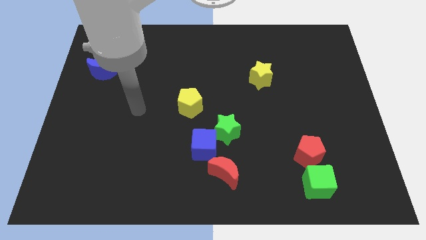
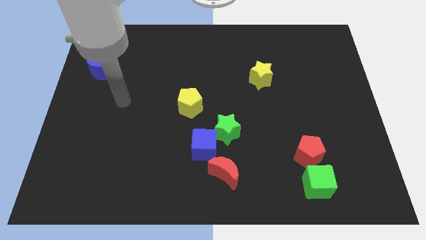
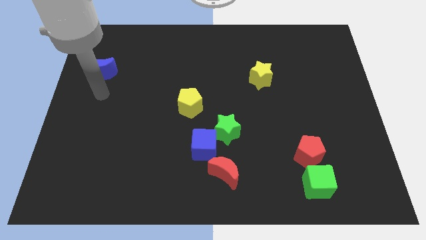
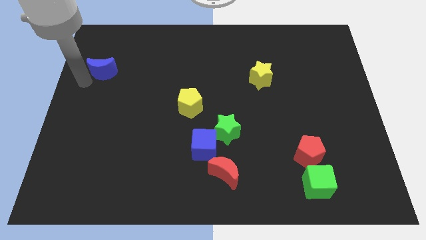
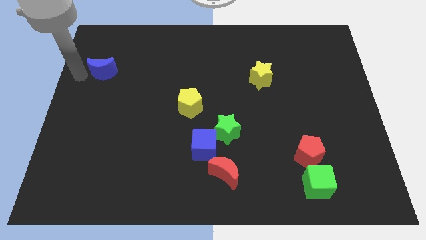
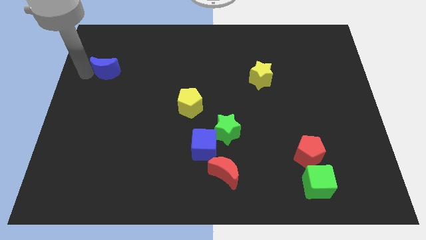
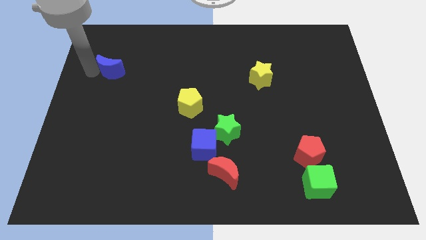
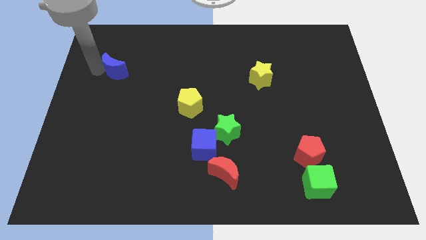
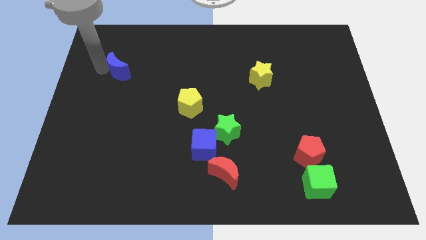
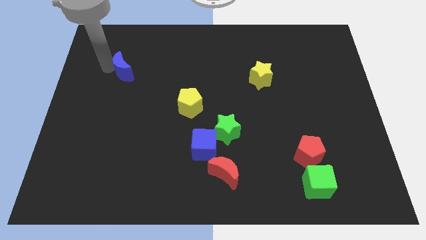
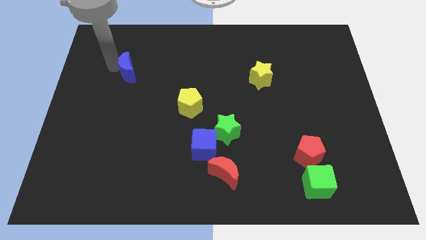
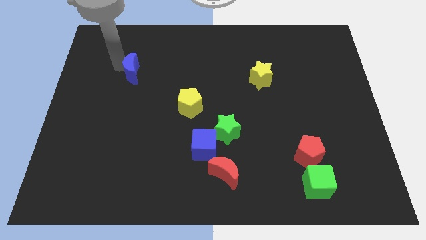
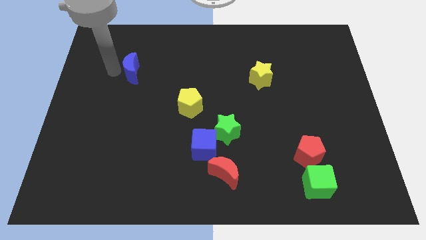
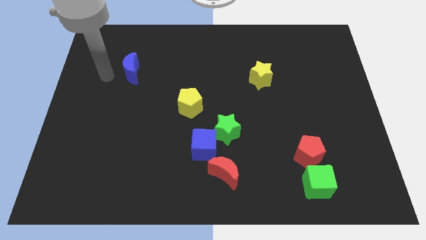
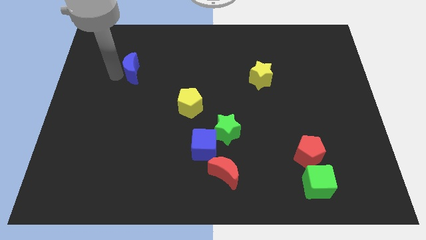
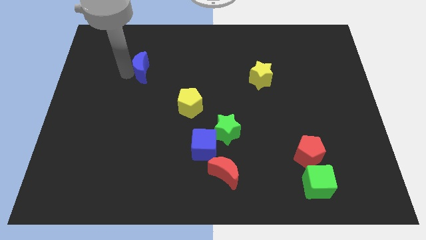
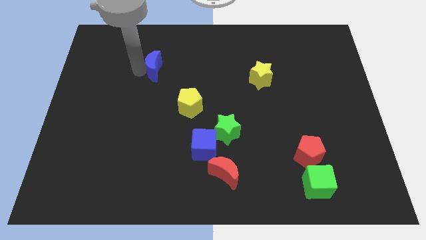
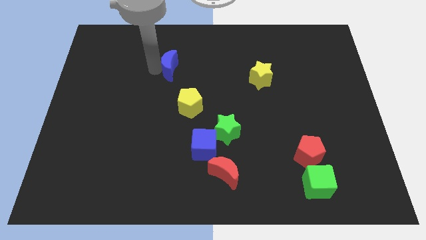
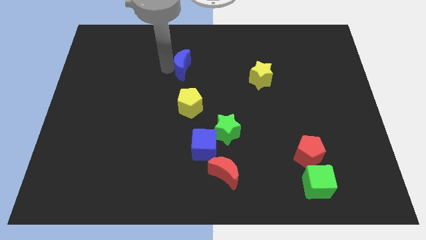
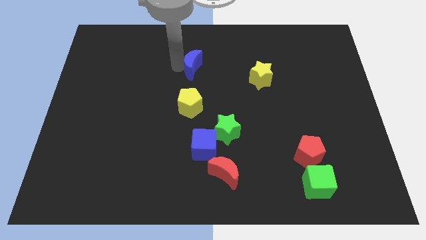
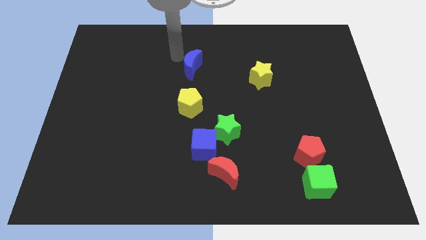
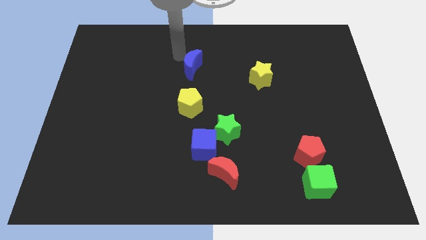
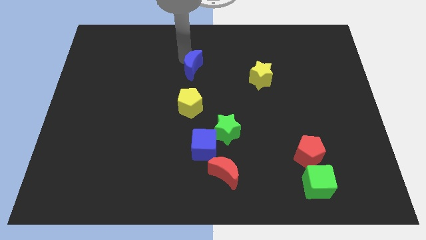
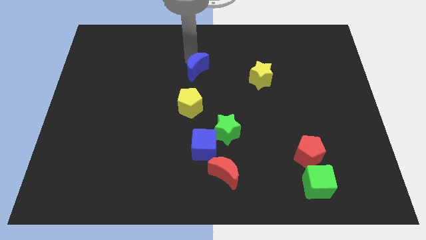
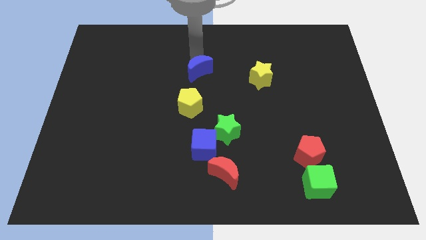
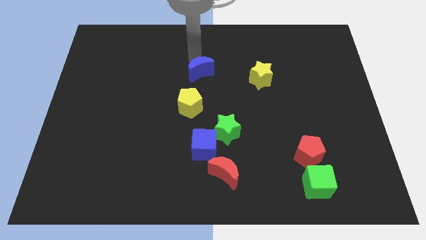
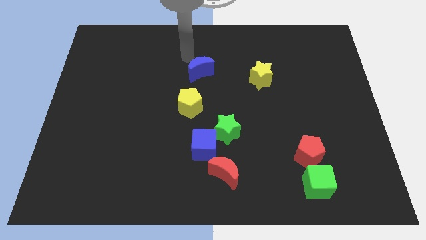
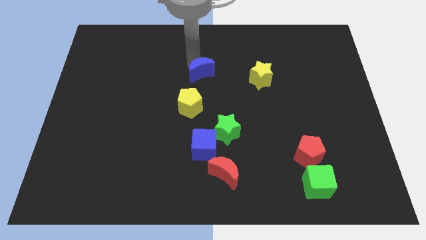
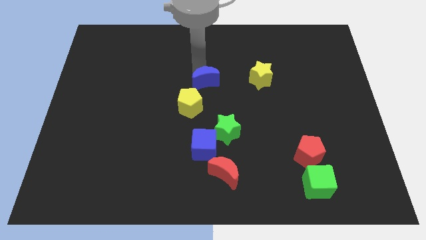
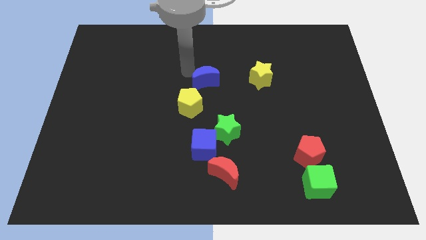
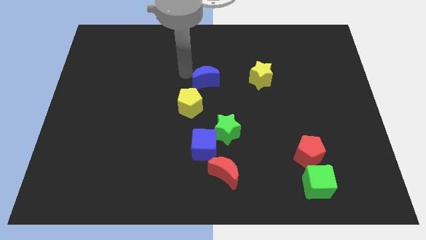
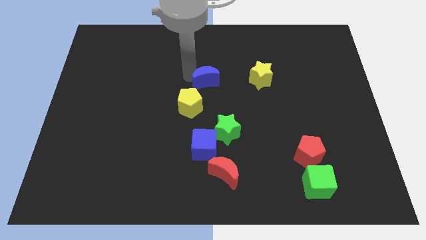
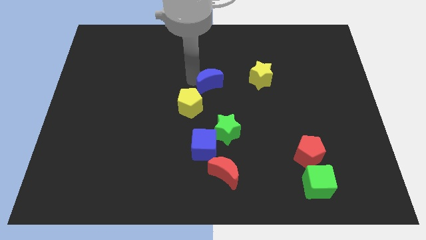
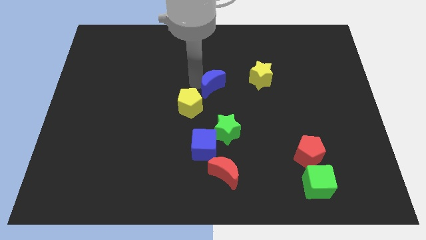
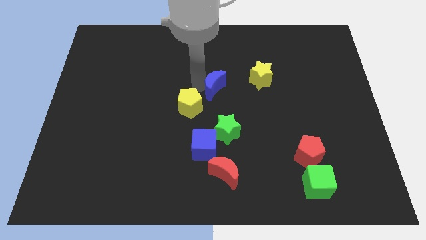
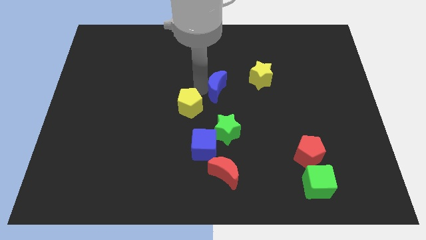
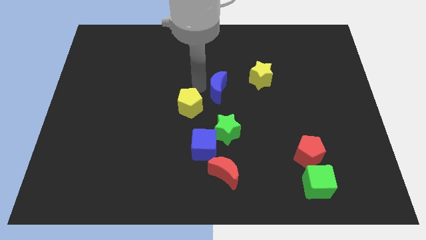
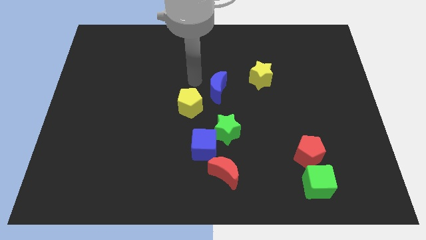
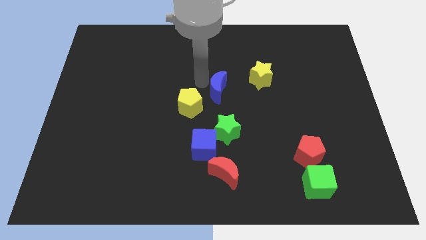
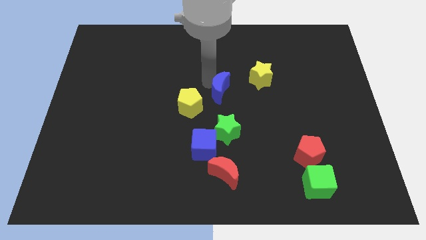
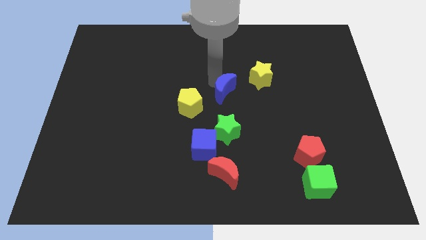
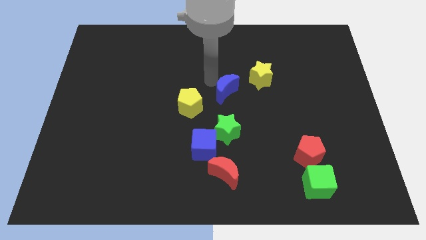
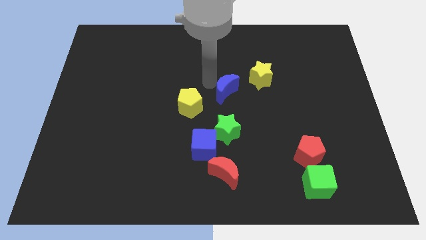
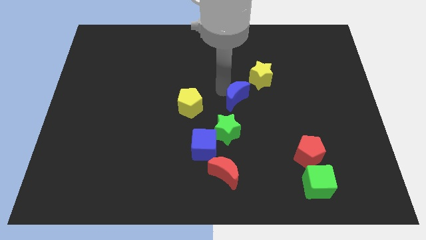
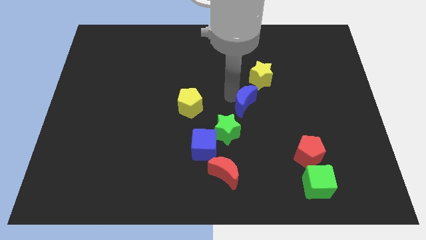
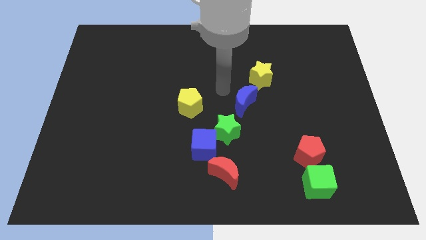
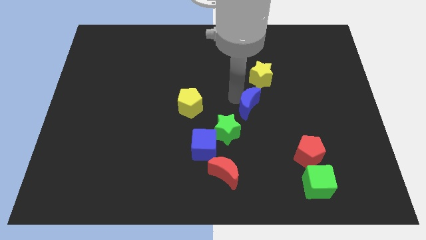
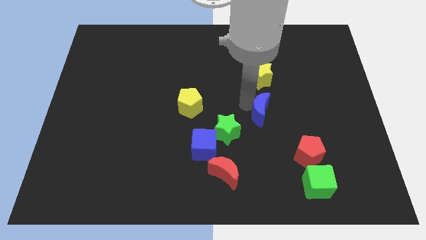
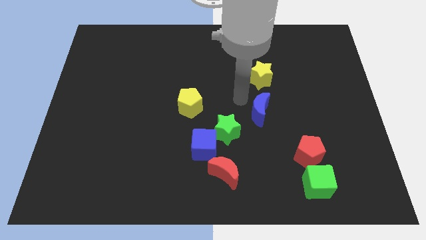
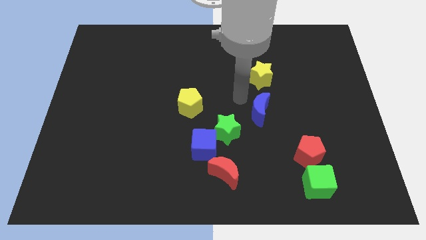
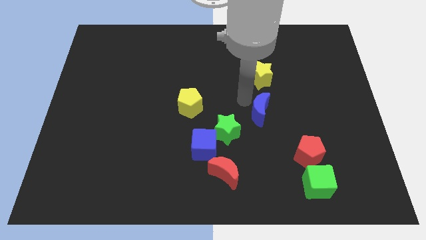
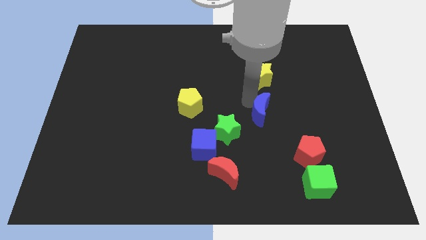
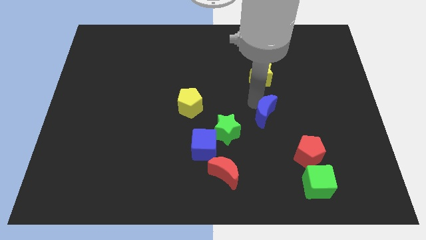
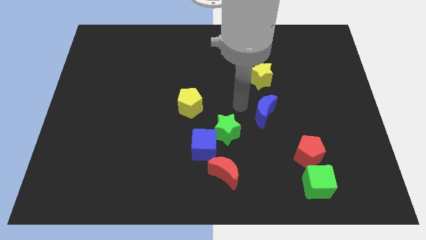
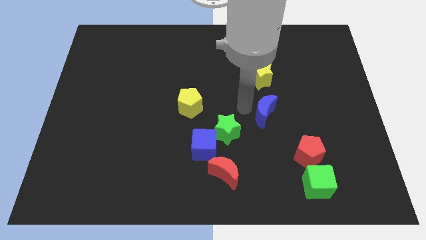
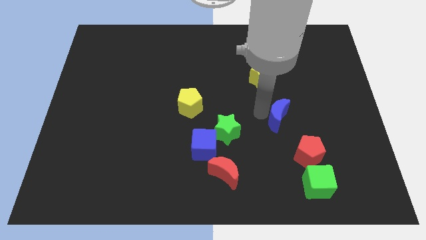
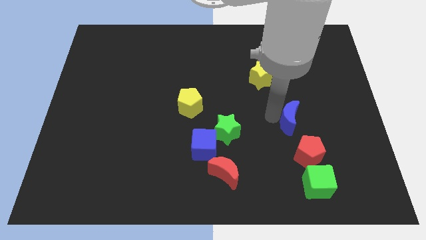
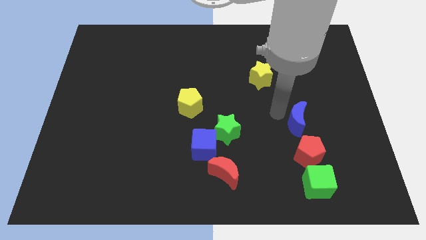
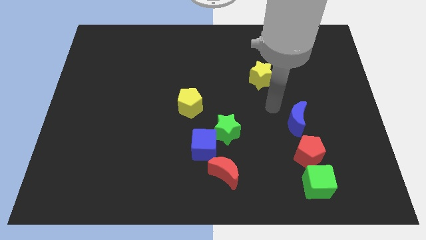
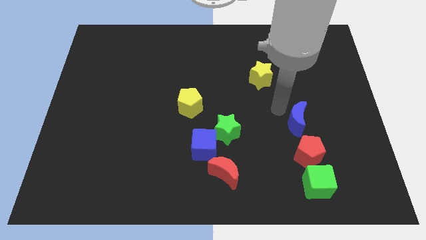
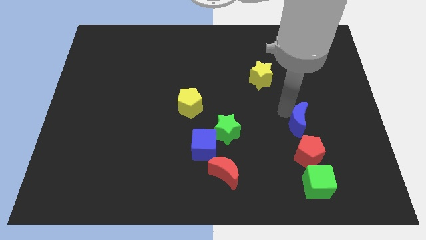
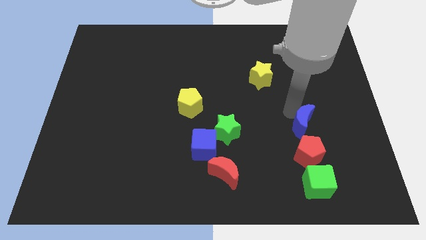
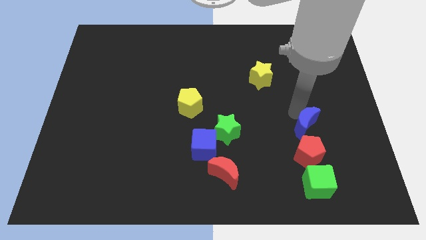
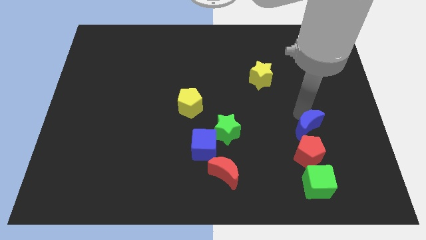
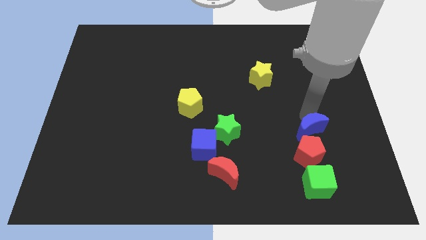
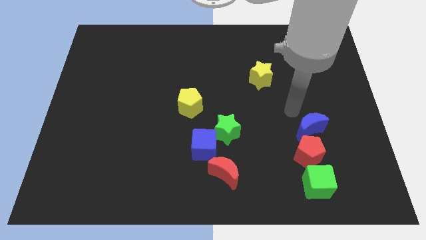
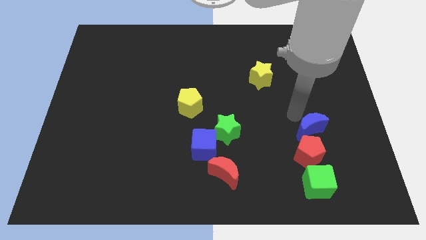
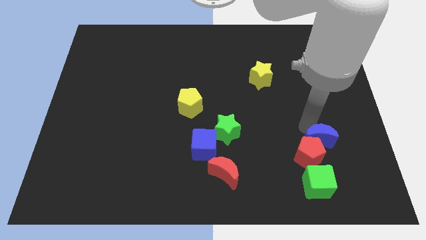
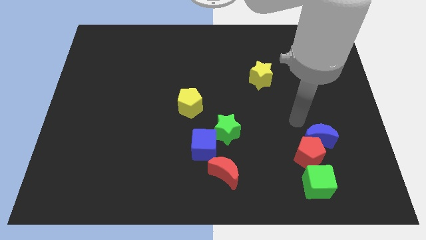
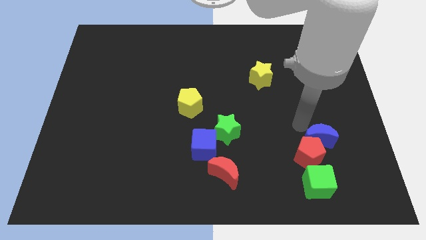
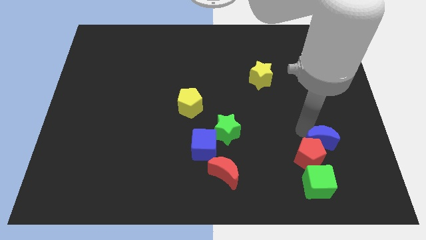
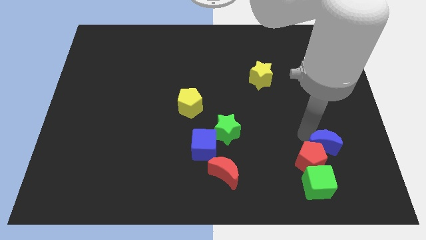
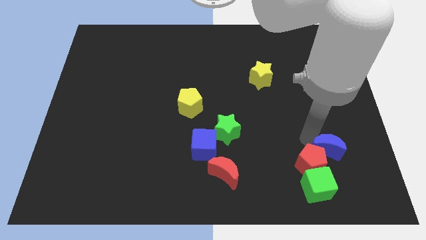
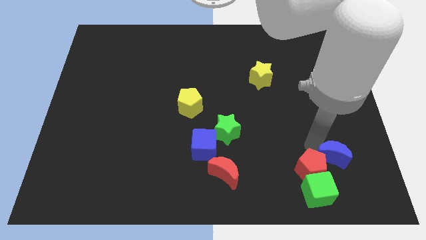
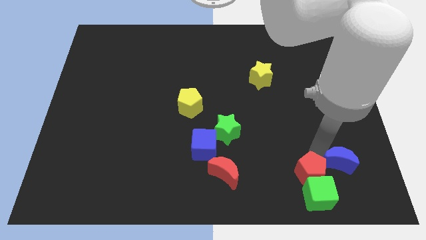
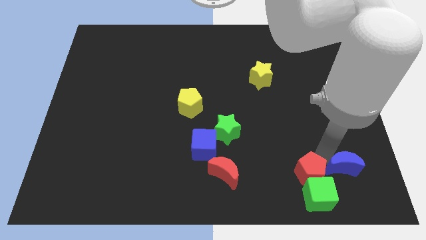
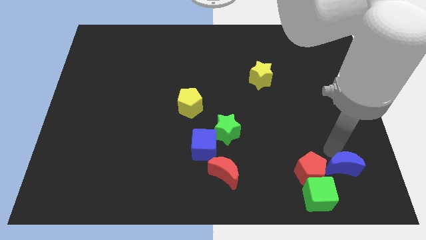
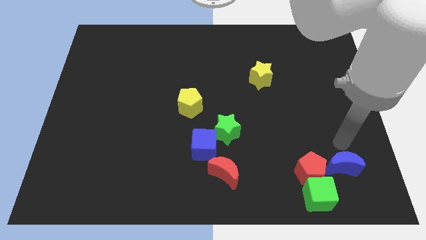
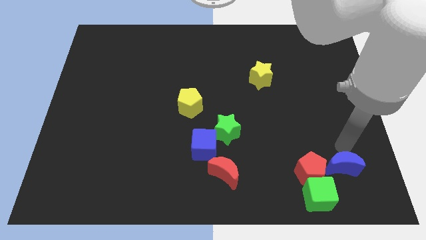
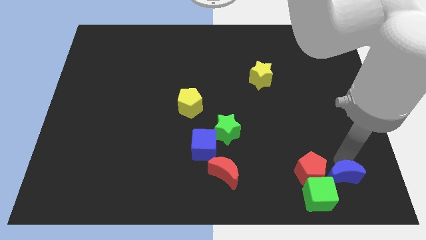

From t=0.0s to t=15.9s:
push the blue moon to the bottom right of the red pentagon
